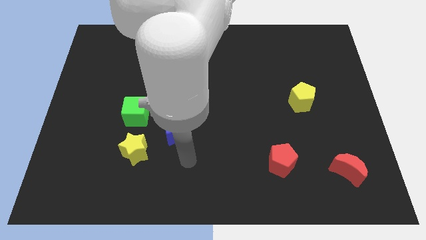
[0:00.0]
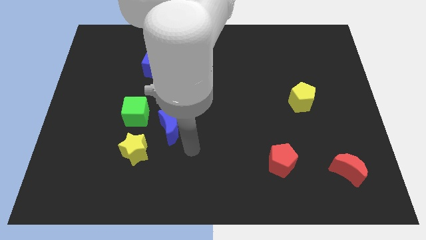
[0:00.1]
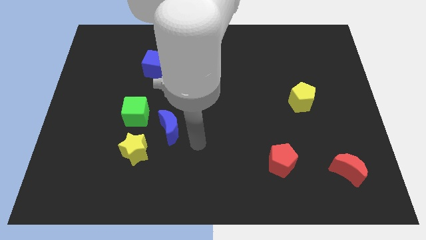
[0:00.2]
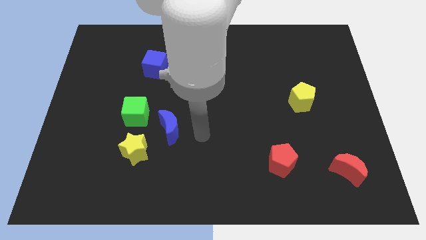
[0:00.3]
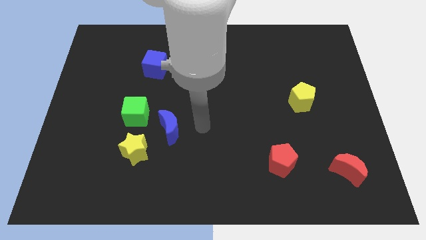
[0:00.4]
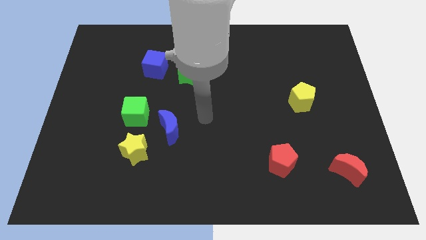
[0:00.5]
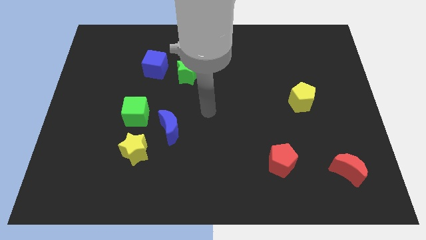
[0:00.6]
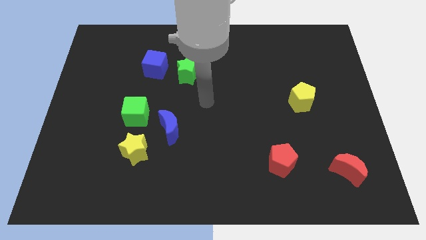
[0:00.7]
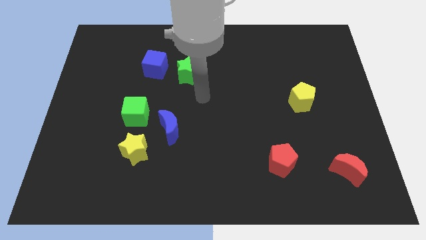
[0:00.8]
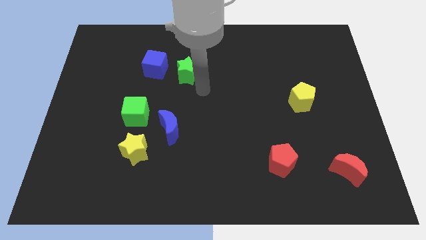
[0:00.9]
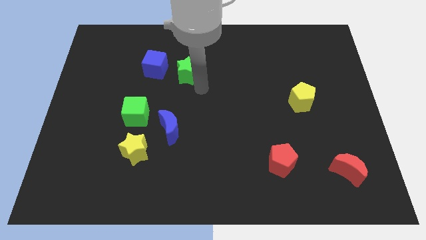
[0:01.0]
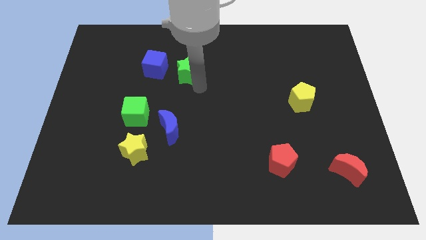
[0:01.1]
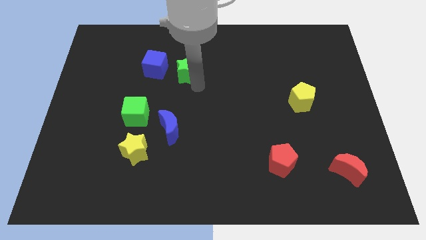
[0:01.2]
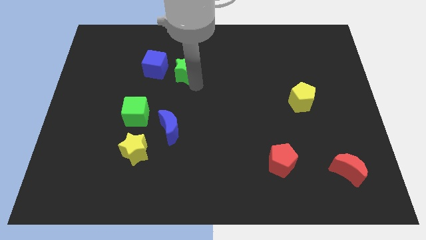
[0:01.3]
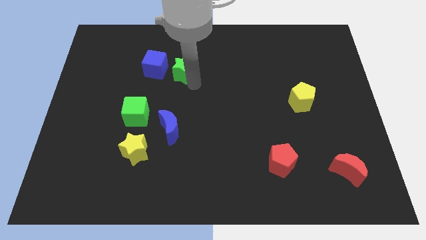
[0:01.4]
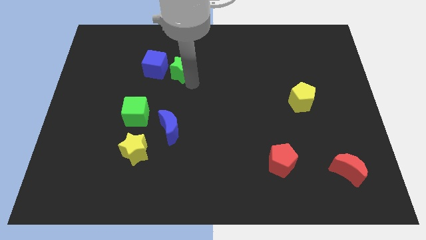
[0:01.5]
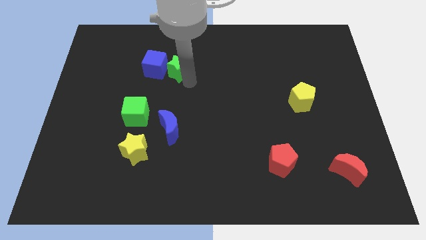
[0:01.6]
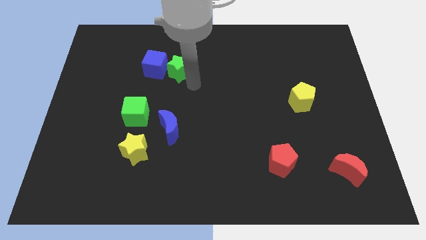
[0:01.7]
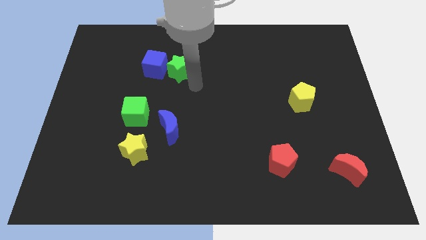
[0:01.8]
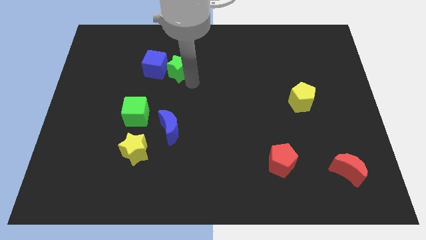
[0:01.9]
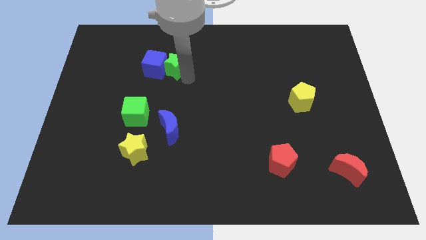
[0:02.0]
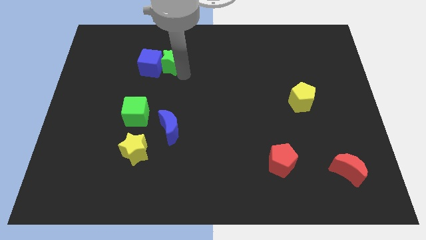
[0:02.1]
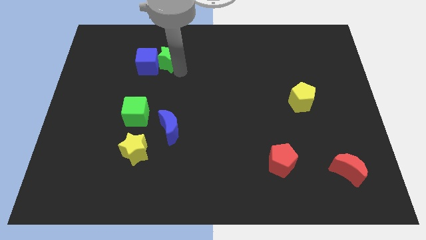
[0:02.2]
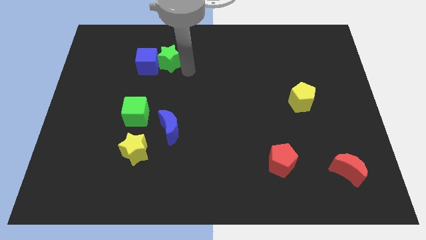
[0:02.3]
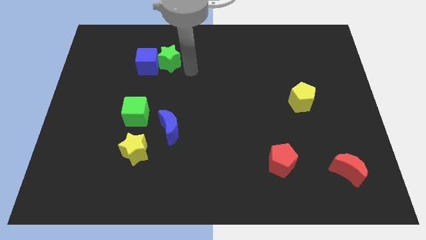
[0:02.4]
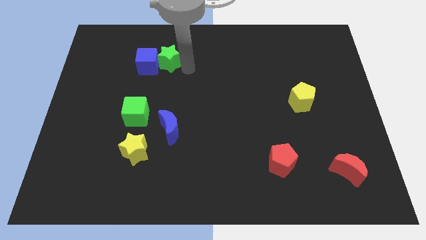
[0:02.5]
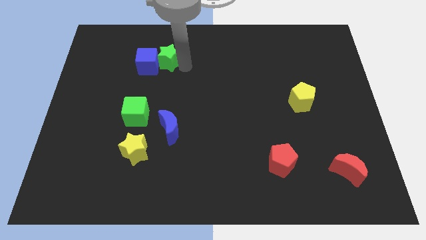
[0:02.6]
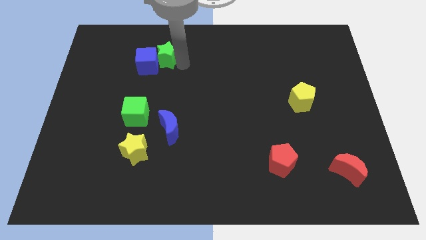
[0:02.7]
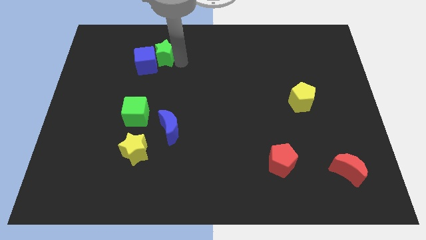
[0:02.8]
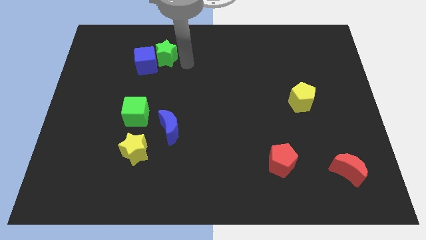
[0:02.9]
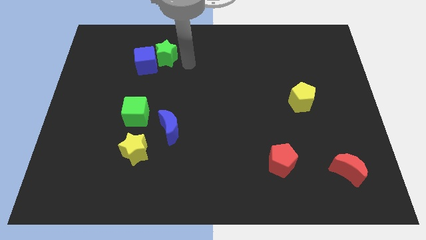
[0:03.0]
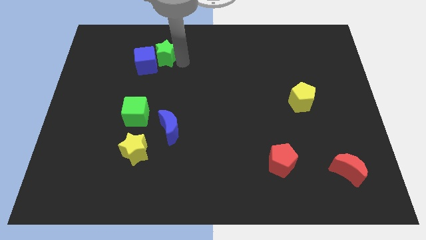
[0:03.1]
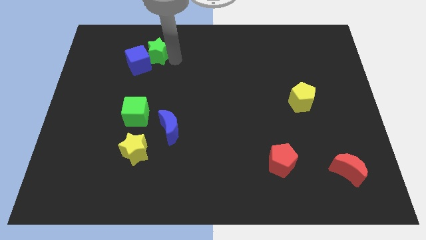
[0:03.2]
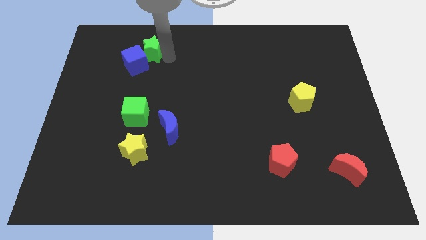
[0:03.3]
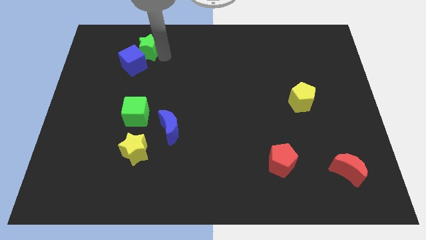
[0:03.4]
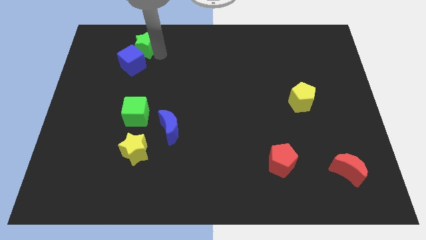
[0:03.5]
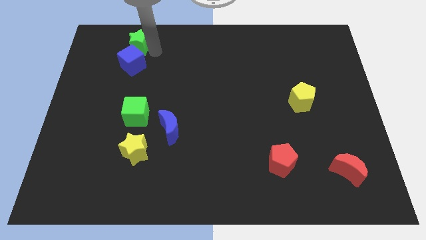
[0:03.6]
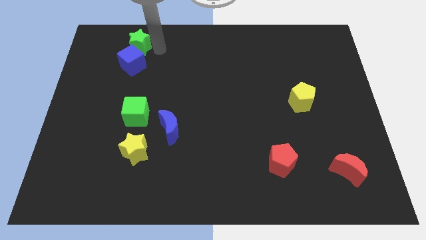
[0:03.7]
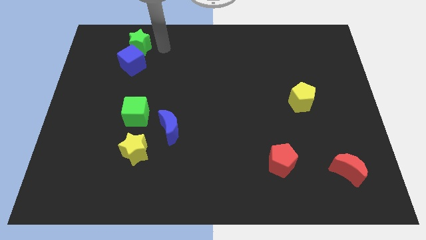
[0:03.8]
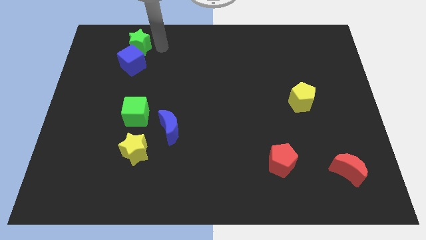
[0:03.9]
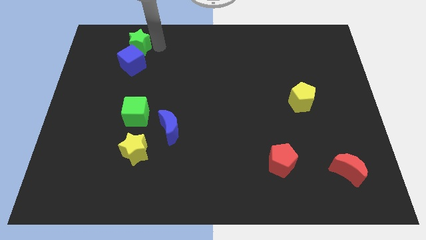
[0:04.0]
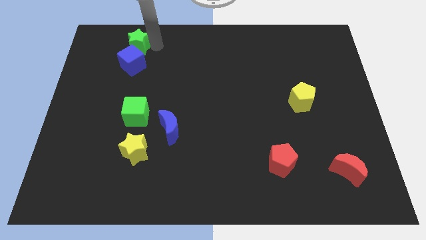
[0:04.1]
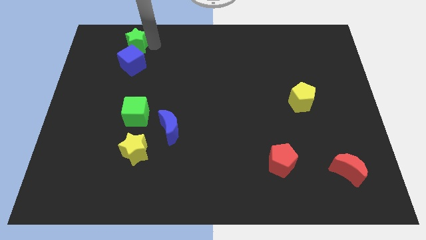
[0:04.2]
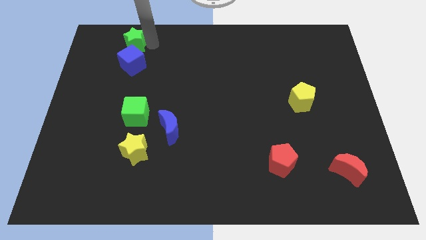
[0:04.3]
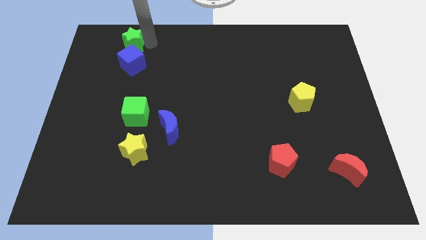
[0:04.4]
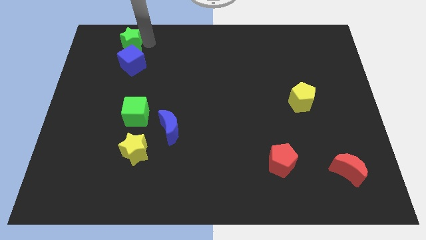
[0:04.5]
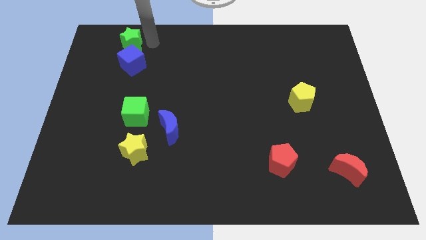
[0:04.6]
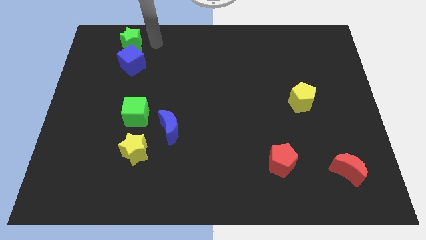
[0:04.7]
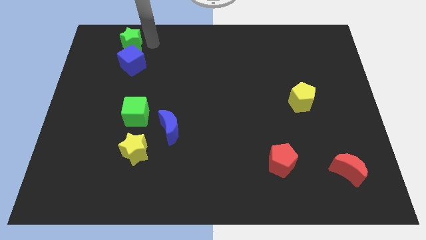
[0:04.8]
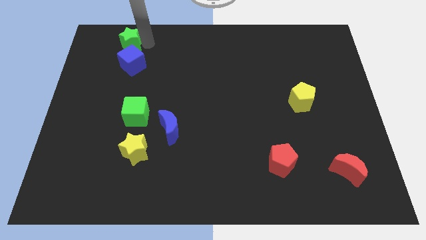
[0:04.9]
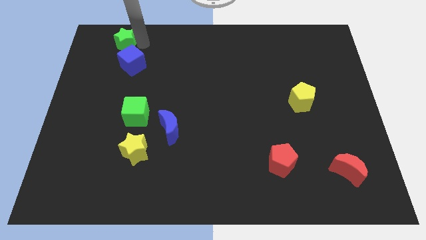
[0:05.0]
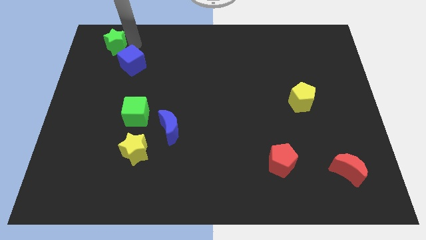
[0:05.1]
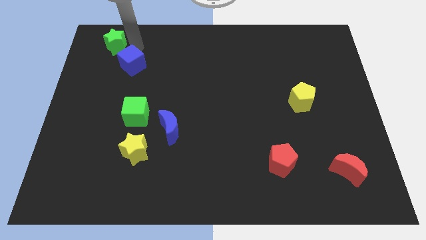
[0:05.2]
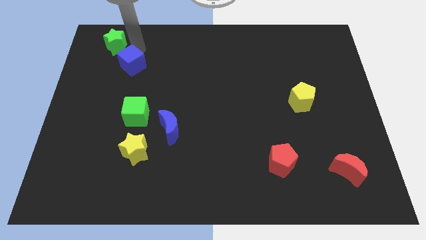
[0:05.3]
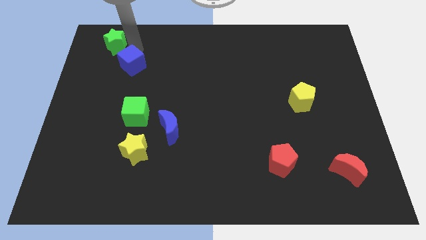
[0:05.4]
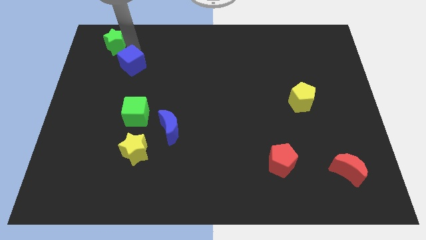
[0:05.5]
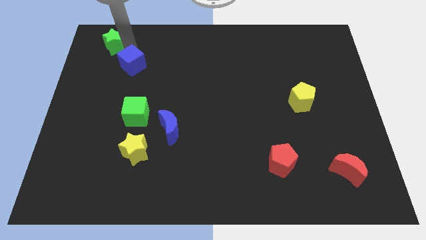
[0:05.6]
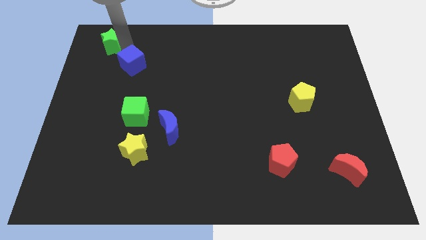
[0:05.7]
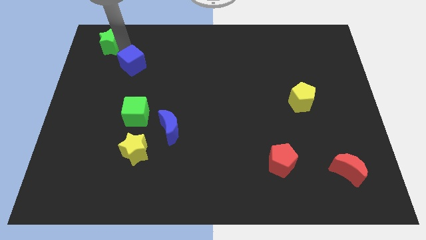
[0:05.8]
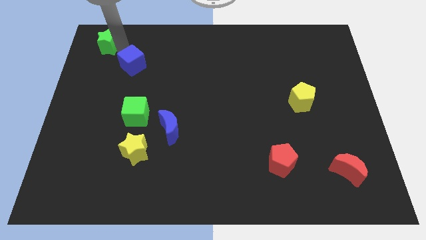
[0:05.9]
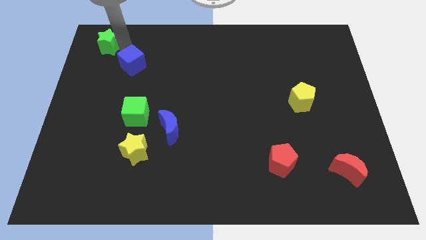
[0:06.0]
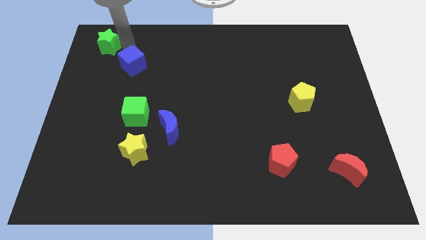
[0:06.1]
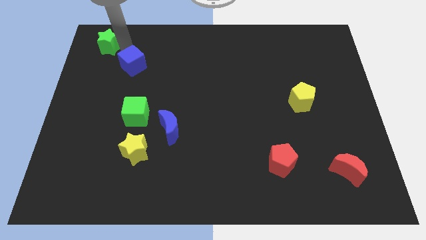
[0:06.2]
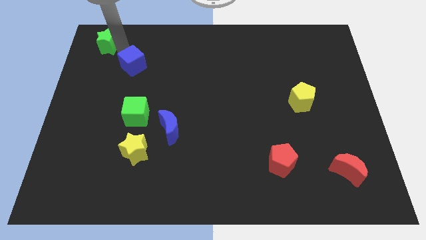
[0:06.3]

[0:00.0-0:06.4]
move the green star to the top left corner
